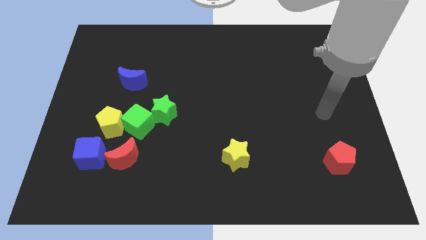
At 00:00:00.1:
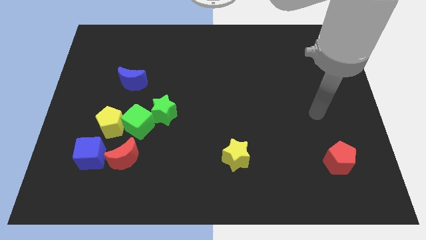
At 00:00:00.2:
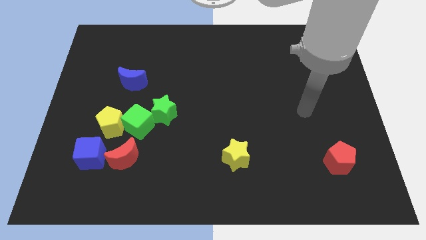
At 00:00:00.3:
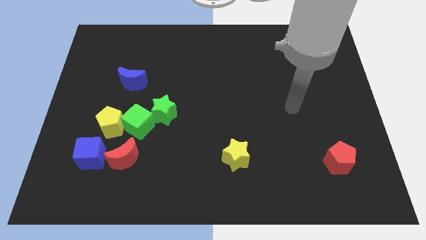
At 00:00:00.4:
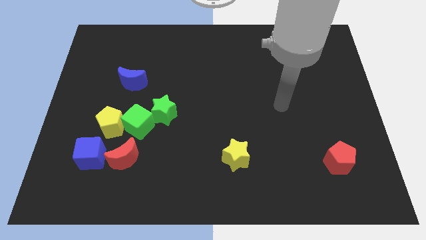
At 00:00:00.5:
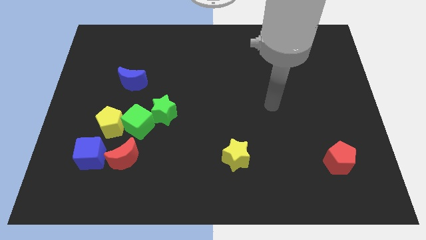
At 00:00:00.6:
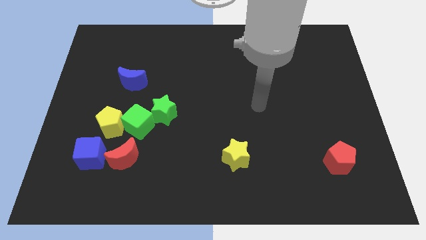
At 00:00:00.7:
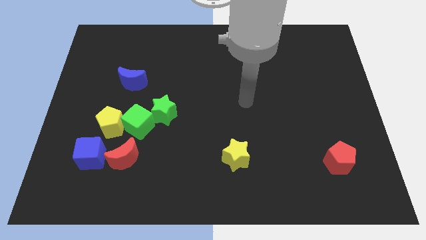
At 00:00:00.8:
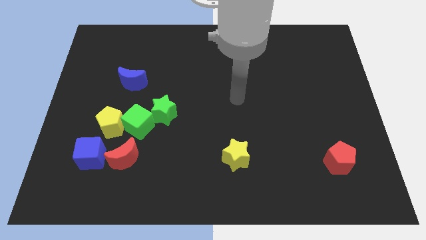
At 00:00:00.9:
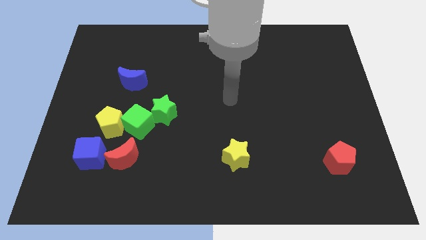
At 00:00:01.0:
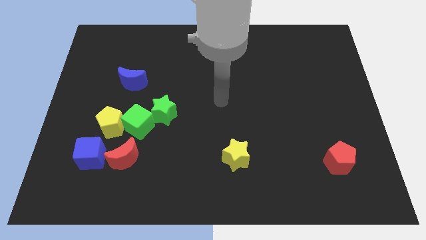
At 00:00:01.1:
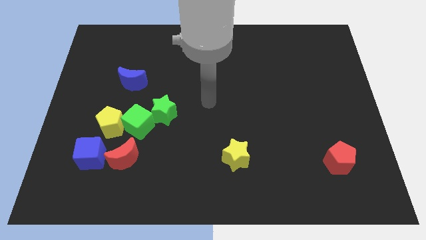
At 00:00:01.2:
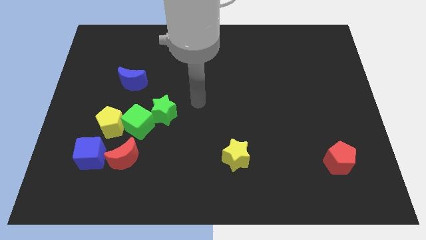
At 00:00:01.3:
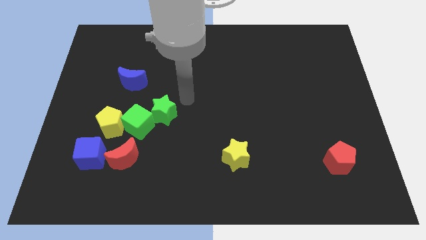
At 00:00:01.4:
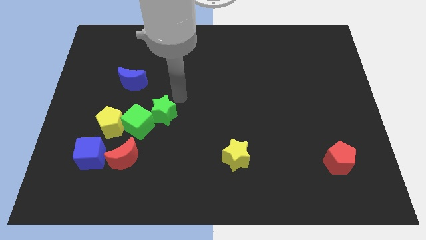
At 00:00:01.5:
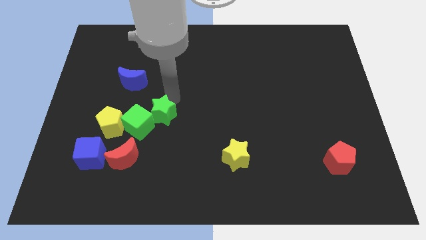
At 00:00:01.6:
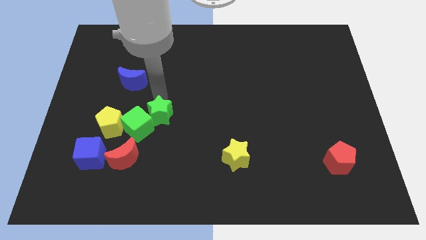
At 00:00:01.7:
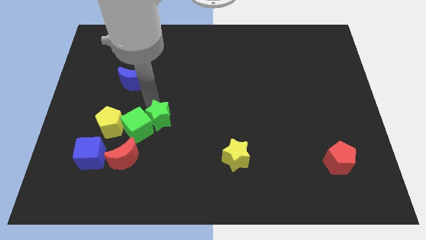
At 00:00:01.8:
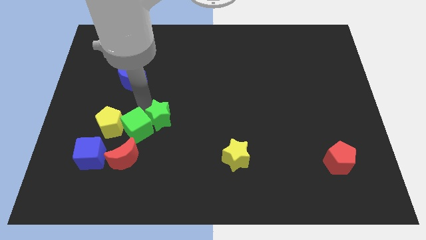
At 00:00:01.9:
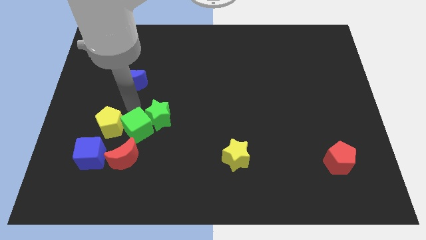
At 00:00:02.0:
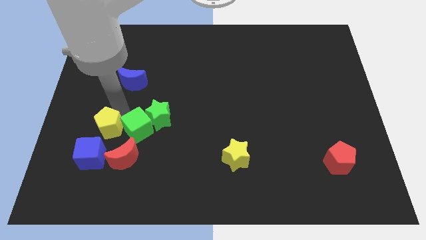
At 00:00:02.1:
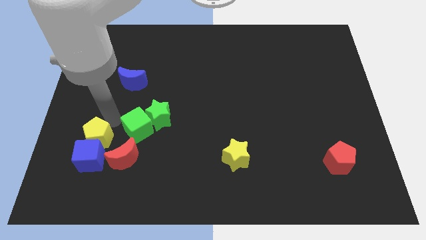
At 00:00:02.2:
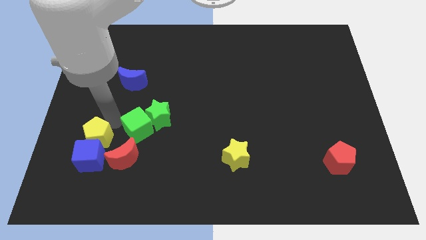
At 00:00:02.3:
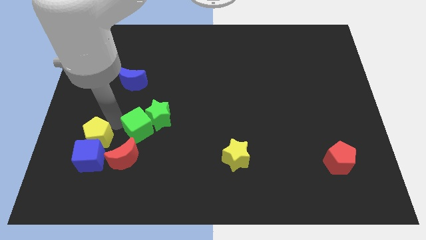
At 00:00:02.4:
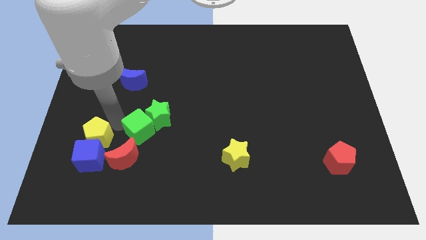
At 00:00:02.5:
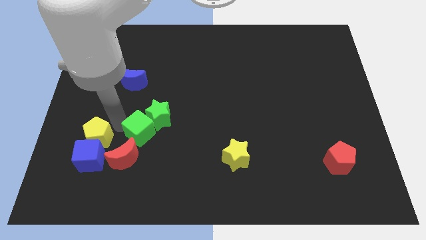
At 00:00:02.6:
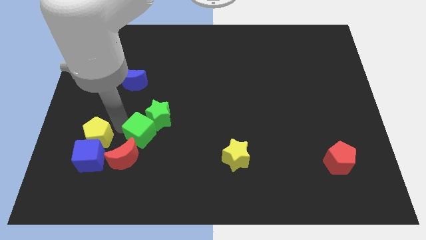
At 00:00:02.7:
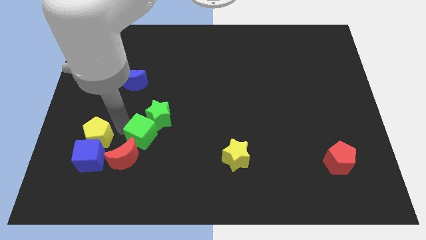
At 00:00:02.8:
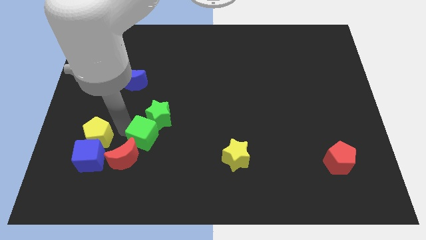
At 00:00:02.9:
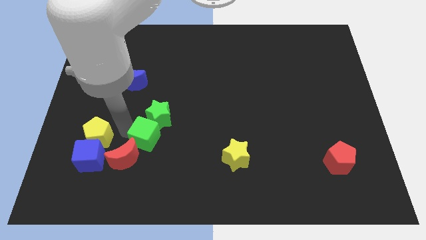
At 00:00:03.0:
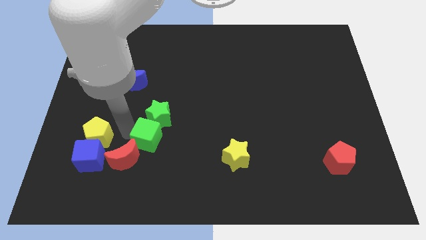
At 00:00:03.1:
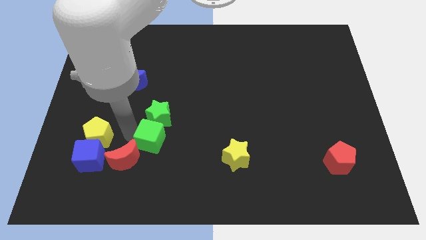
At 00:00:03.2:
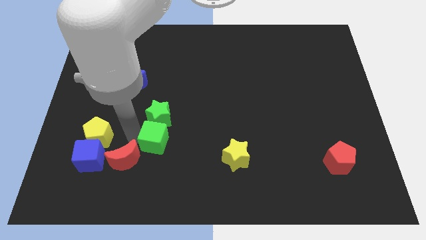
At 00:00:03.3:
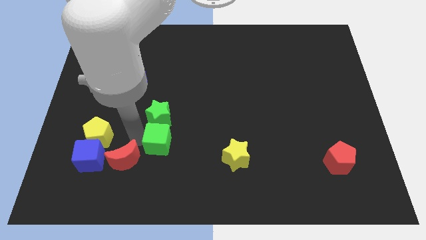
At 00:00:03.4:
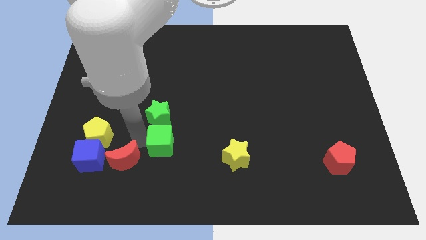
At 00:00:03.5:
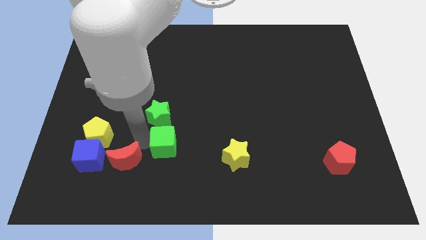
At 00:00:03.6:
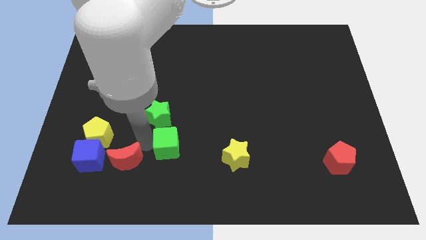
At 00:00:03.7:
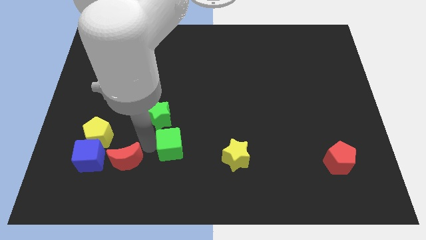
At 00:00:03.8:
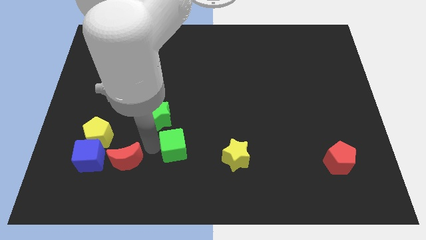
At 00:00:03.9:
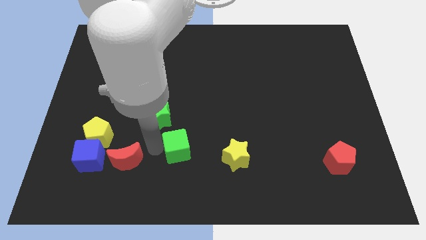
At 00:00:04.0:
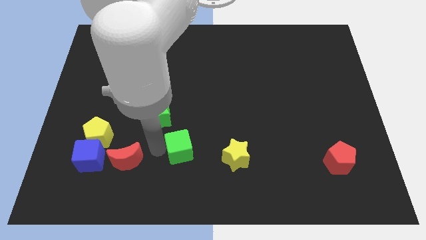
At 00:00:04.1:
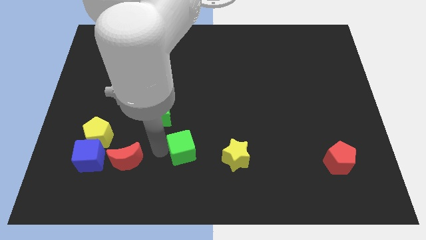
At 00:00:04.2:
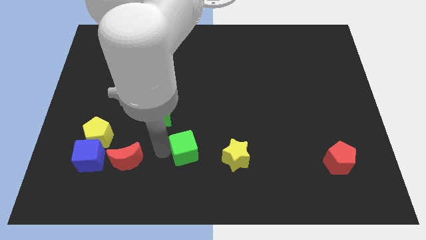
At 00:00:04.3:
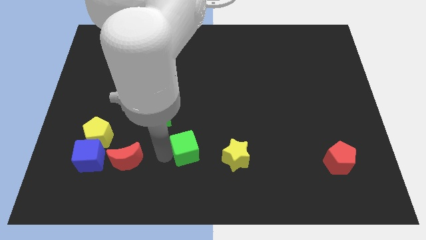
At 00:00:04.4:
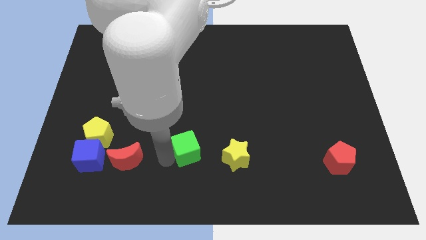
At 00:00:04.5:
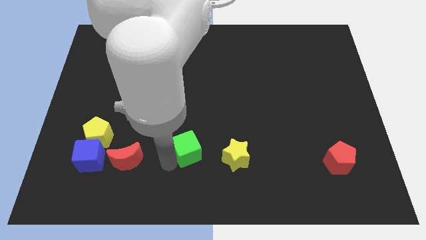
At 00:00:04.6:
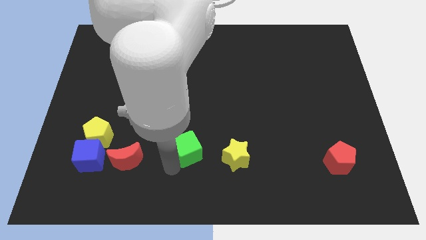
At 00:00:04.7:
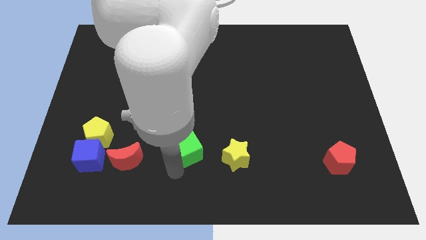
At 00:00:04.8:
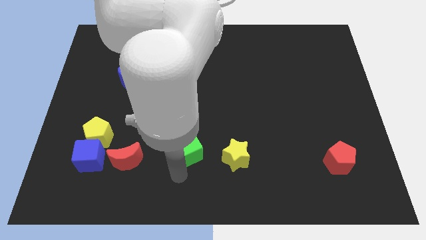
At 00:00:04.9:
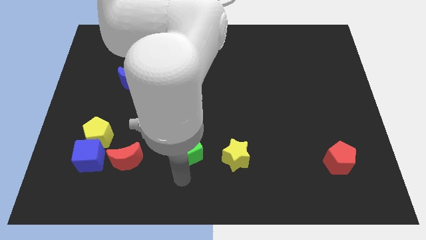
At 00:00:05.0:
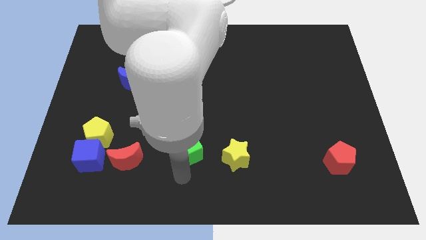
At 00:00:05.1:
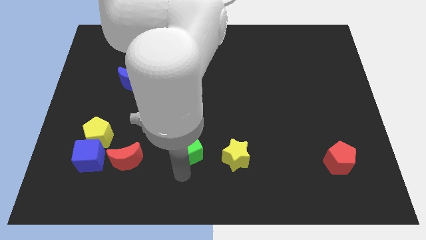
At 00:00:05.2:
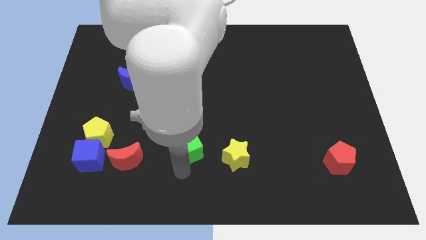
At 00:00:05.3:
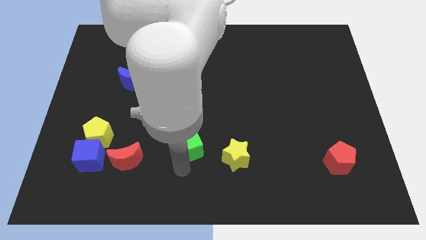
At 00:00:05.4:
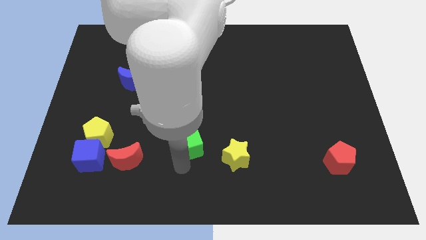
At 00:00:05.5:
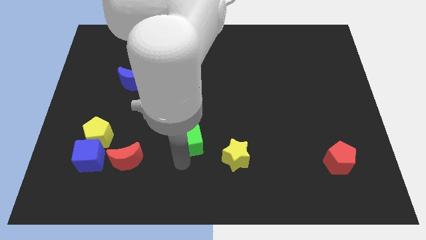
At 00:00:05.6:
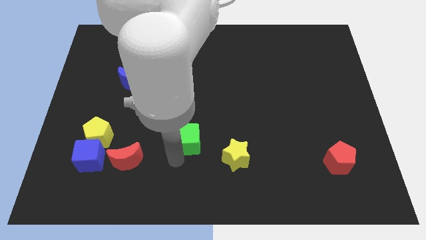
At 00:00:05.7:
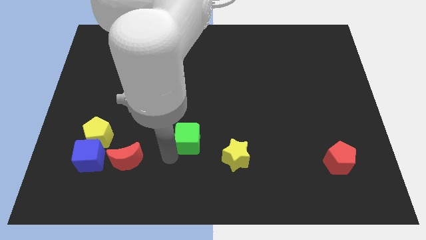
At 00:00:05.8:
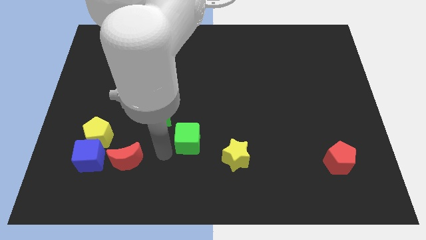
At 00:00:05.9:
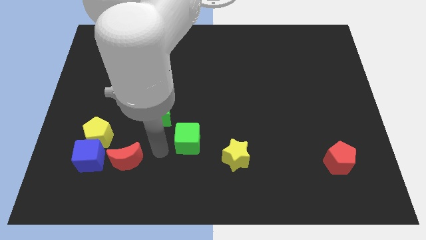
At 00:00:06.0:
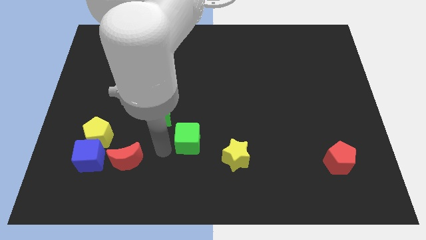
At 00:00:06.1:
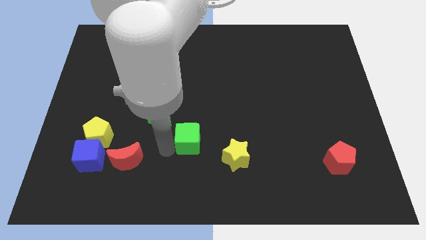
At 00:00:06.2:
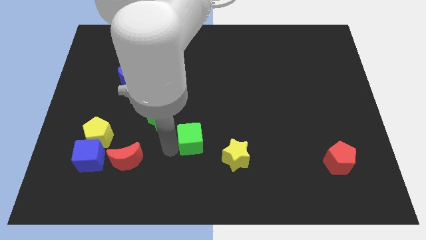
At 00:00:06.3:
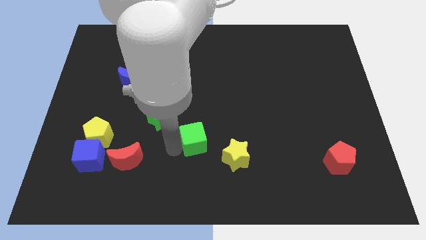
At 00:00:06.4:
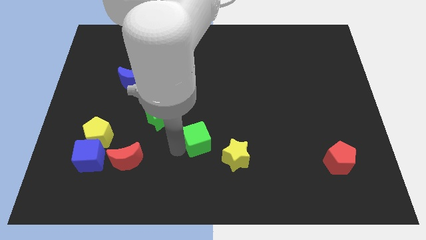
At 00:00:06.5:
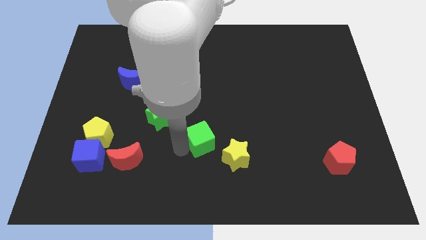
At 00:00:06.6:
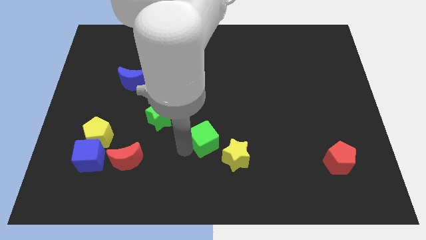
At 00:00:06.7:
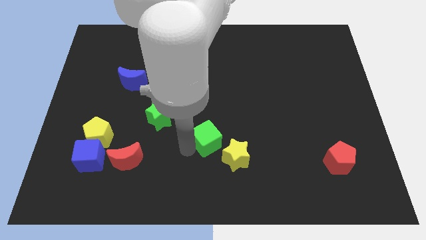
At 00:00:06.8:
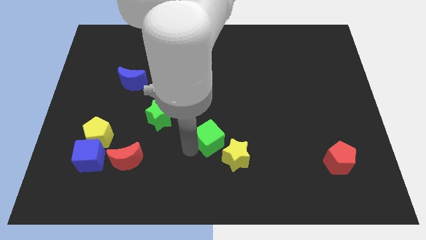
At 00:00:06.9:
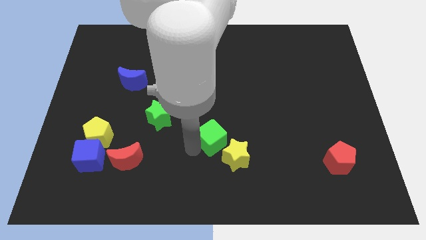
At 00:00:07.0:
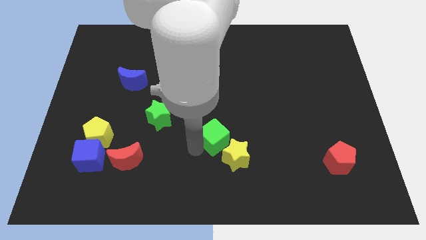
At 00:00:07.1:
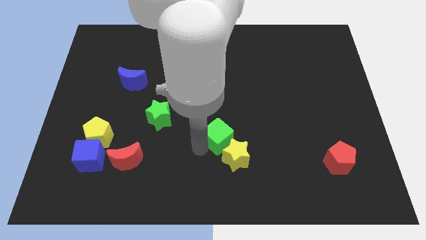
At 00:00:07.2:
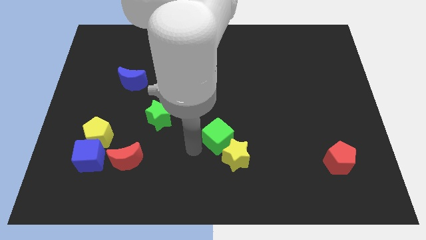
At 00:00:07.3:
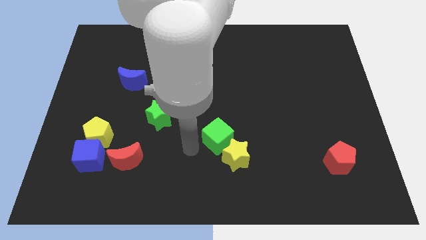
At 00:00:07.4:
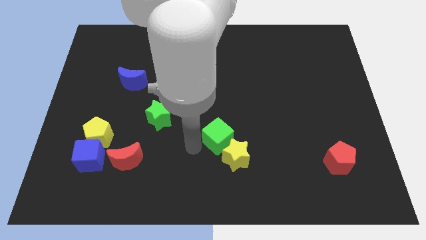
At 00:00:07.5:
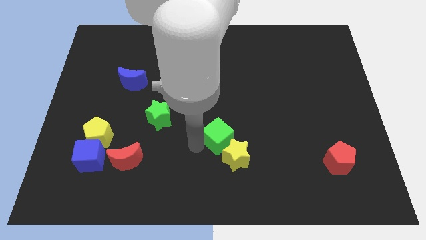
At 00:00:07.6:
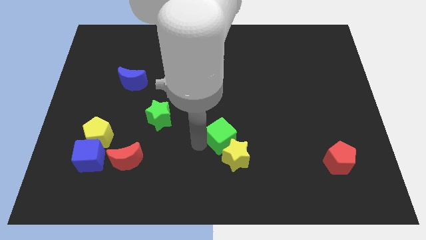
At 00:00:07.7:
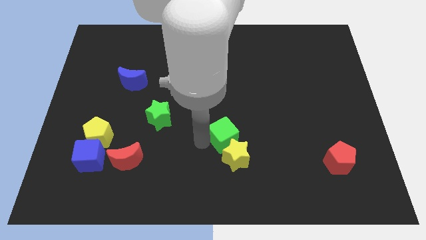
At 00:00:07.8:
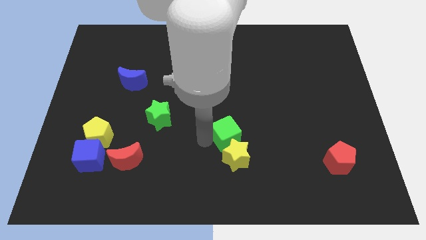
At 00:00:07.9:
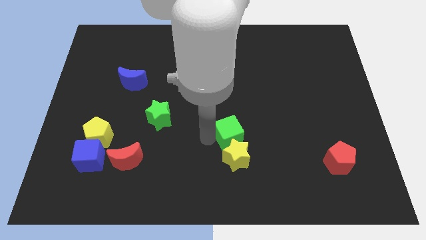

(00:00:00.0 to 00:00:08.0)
push the green cube to the right
